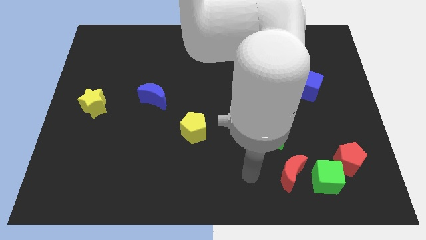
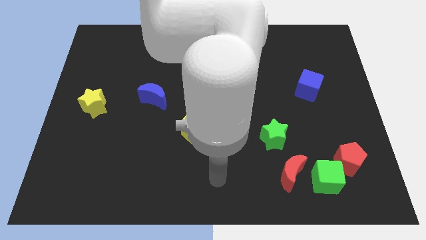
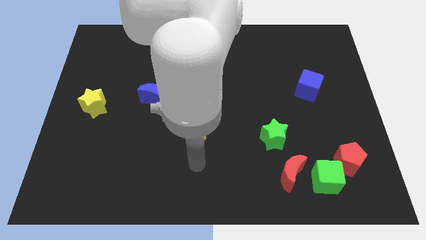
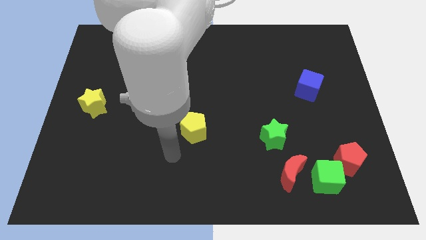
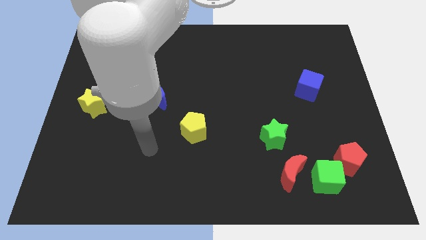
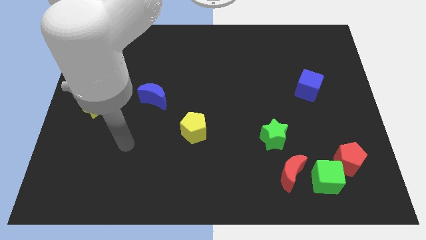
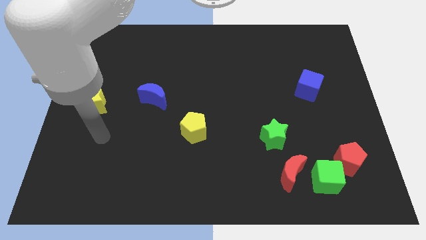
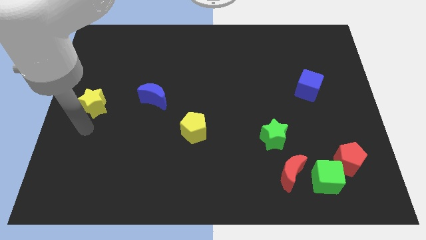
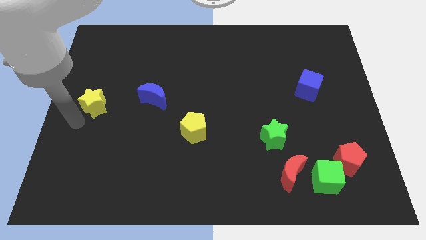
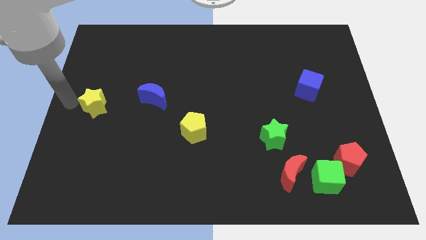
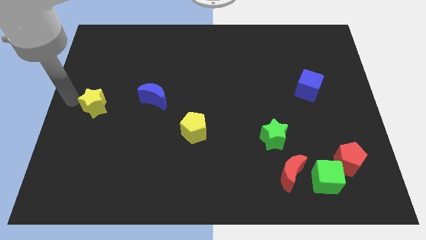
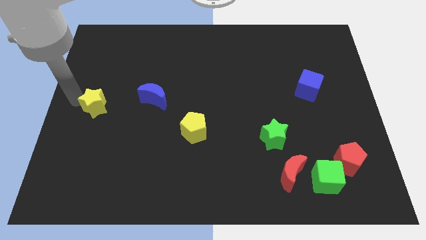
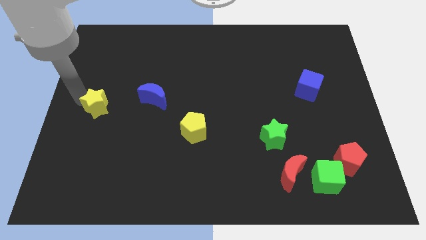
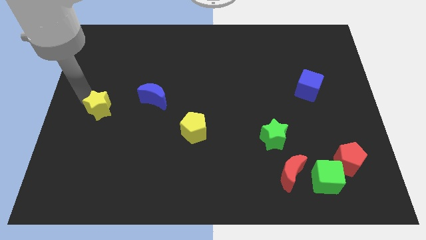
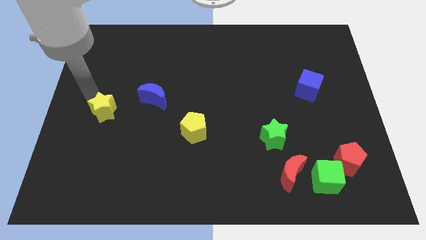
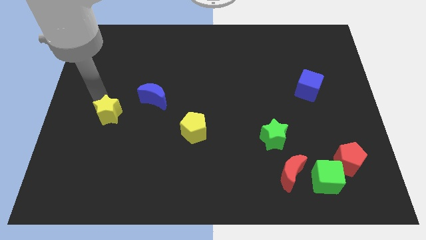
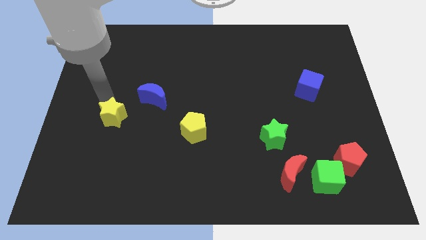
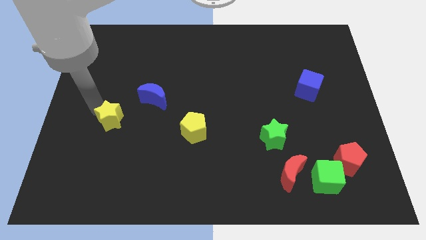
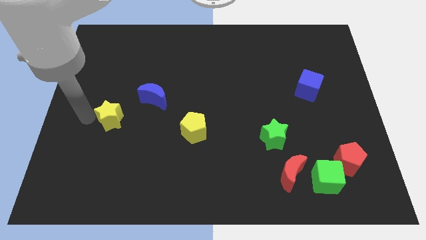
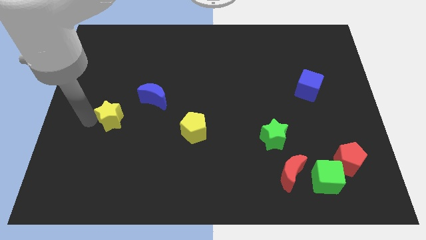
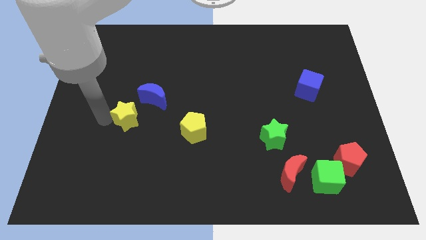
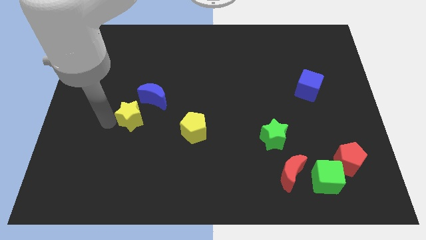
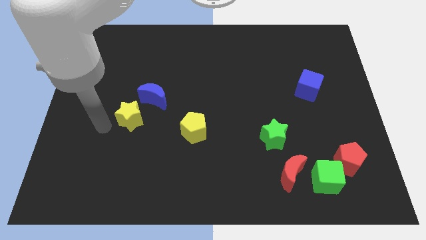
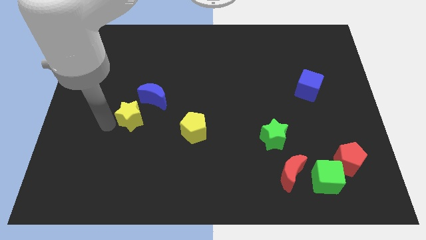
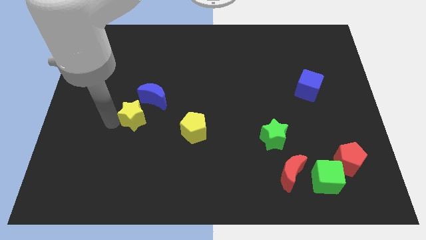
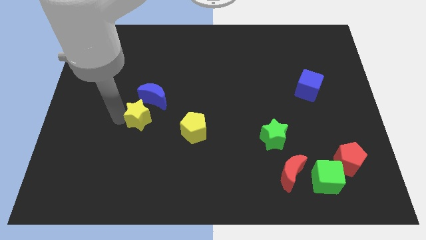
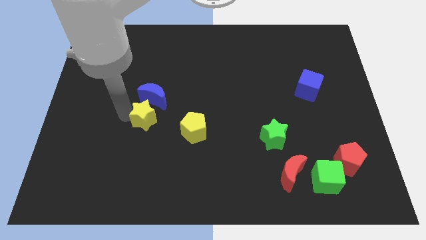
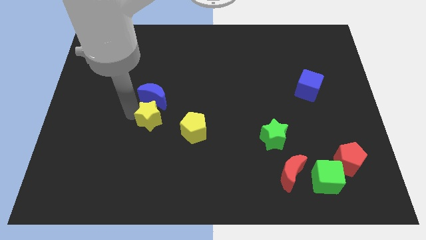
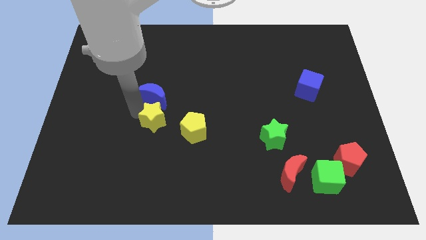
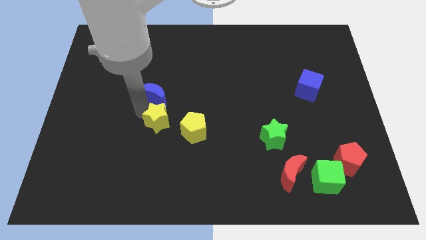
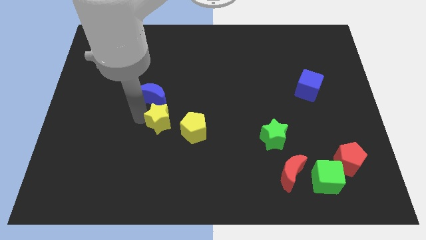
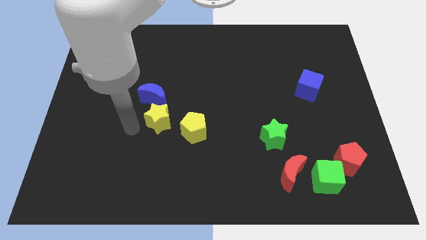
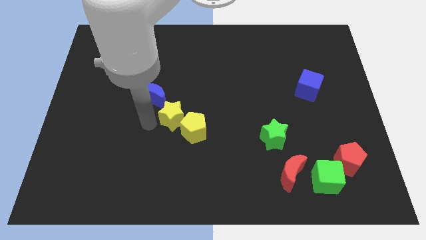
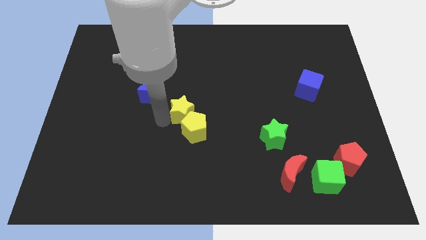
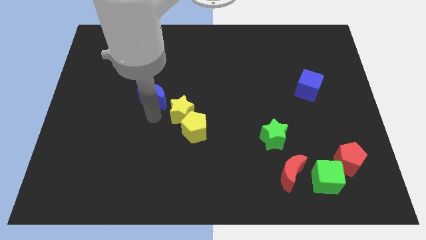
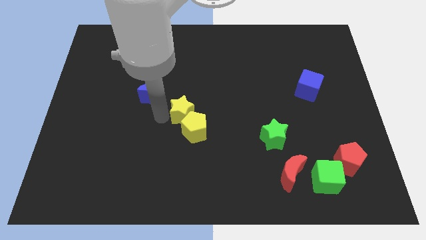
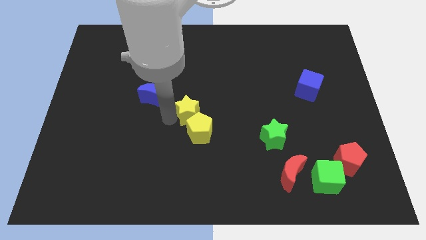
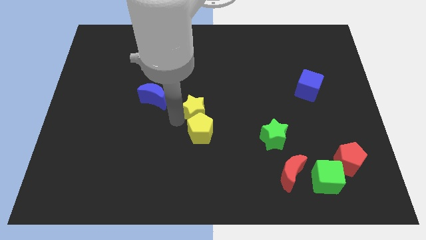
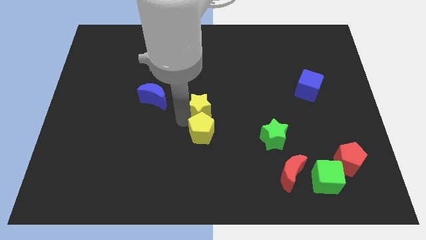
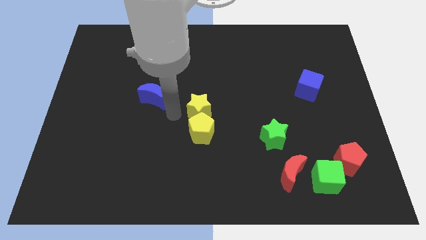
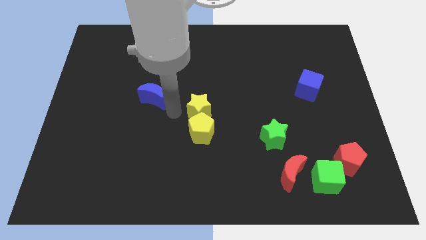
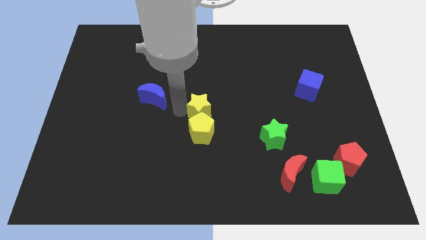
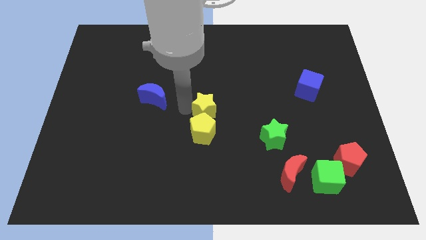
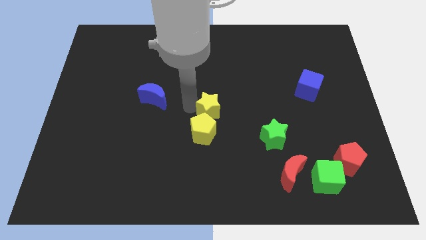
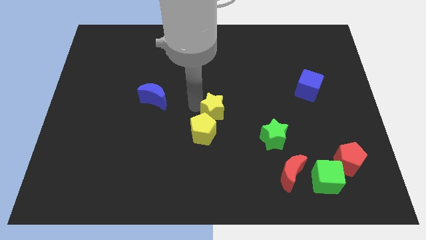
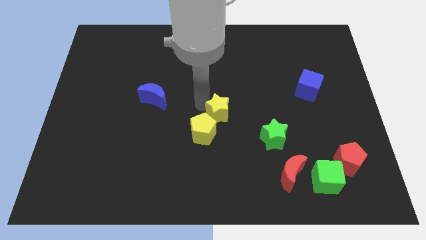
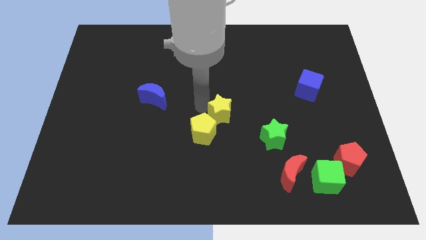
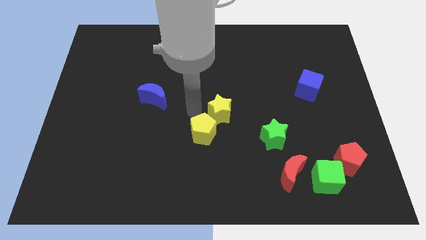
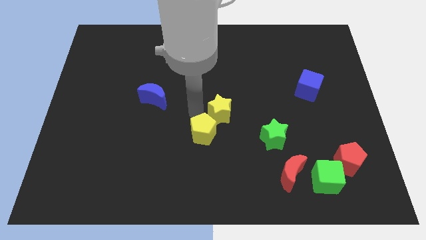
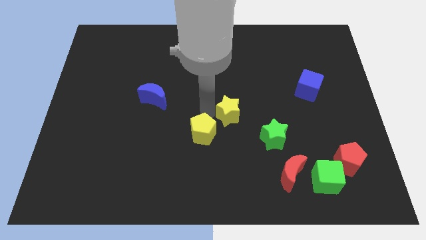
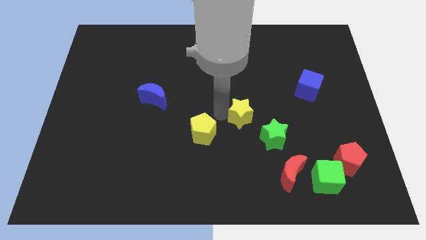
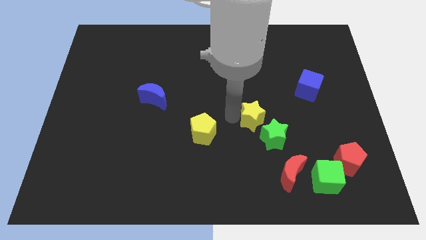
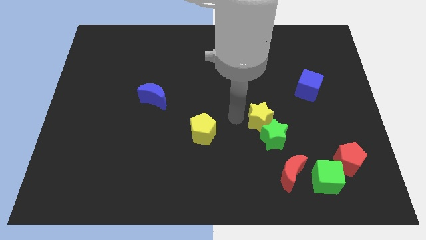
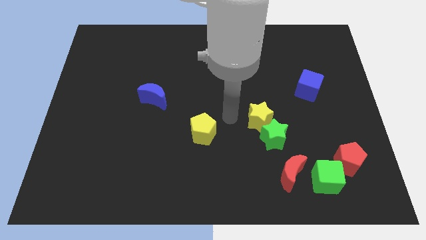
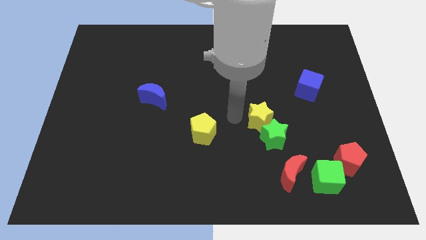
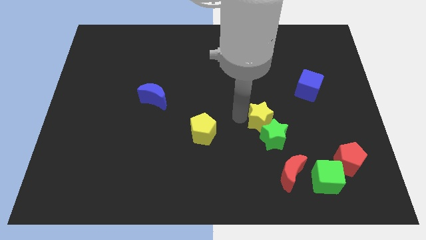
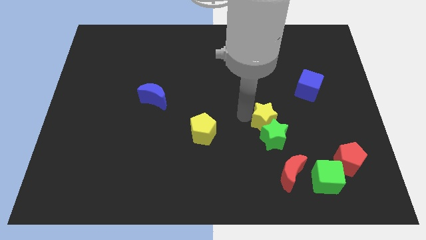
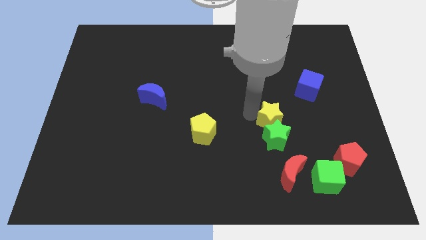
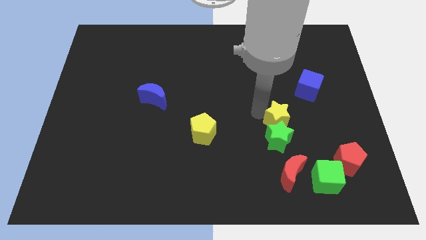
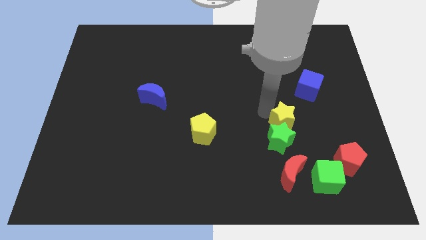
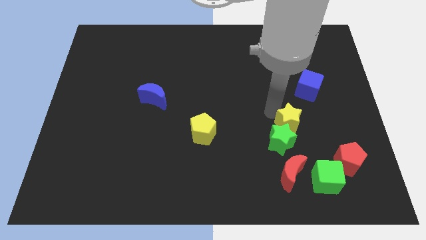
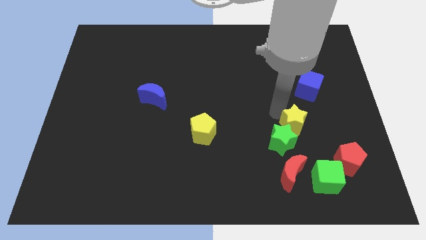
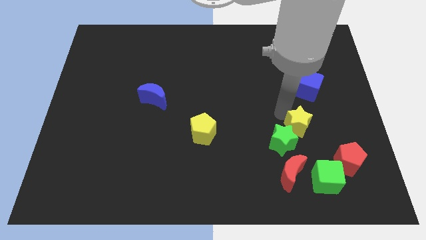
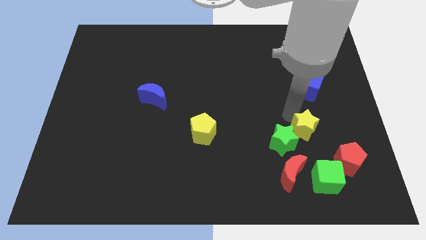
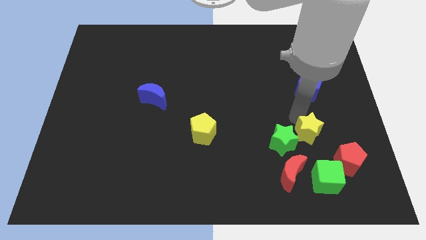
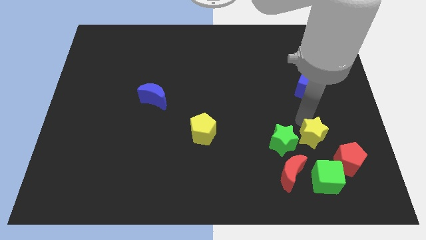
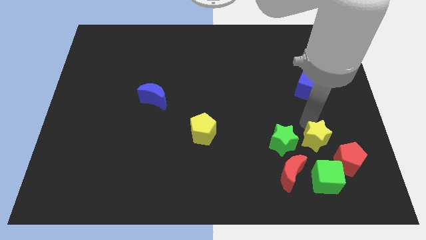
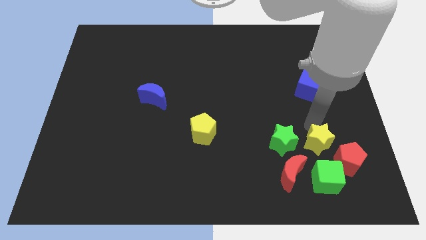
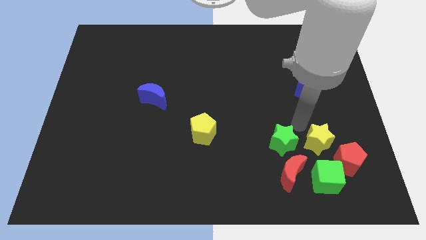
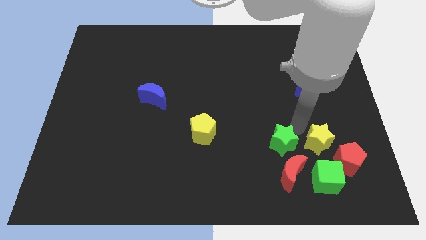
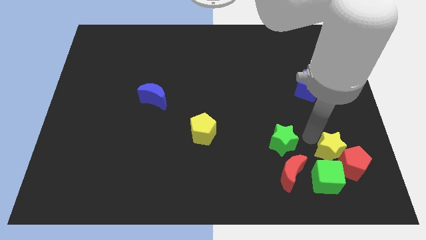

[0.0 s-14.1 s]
put the yellow star close to the red pentagon
